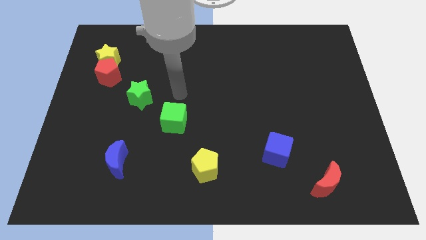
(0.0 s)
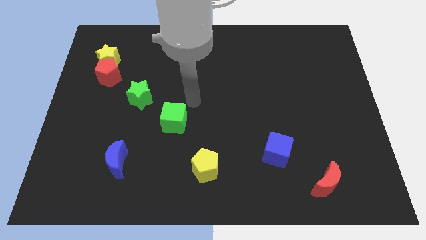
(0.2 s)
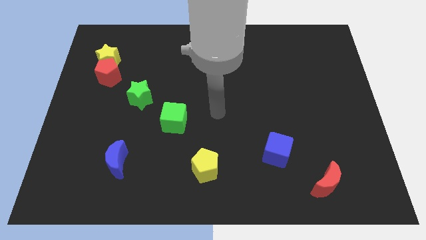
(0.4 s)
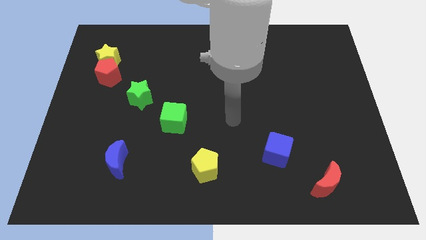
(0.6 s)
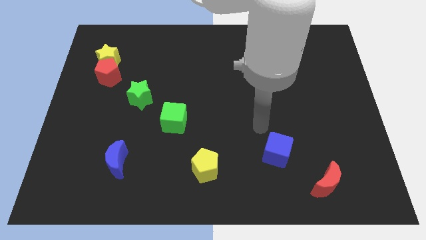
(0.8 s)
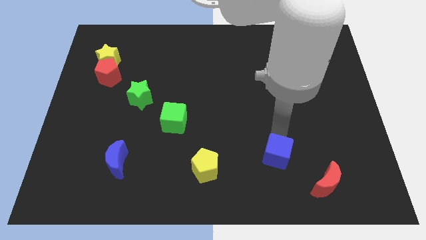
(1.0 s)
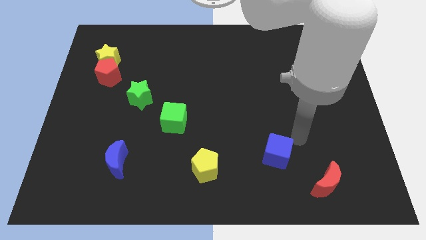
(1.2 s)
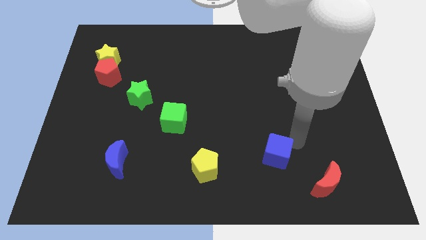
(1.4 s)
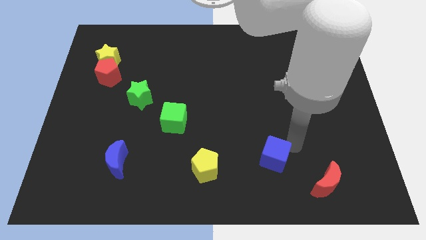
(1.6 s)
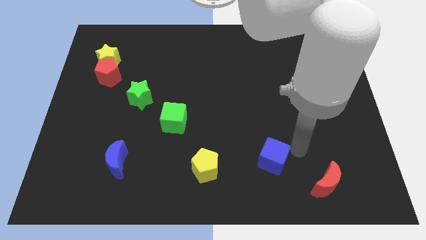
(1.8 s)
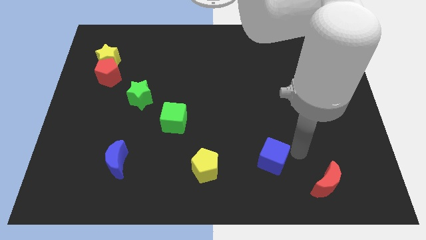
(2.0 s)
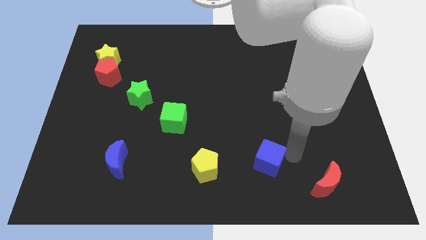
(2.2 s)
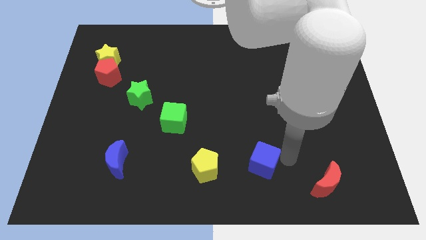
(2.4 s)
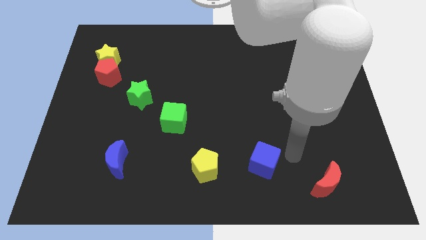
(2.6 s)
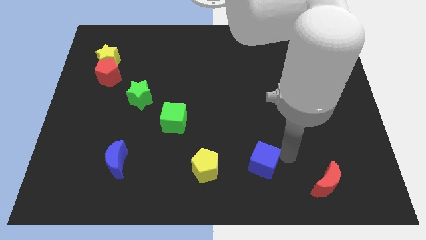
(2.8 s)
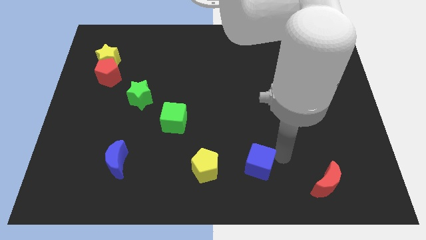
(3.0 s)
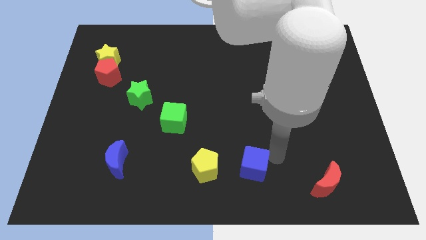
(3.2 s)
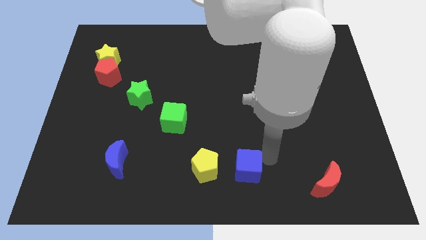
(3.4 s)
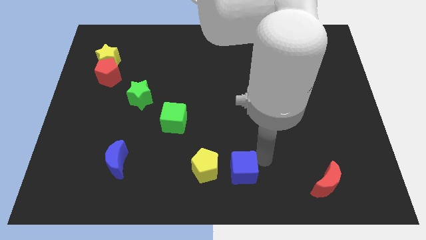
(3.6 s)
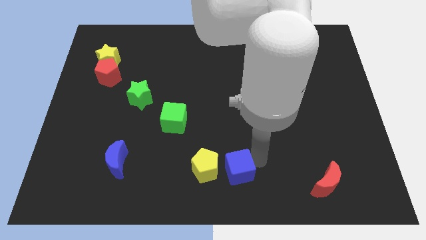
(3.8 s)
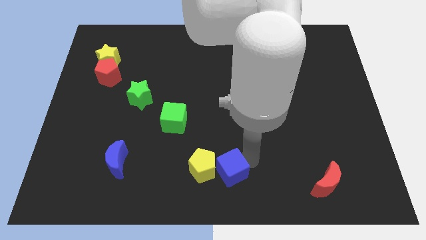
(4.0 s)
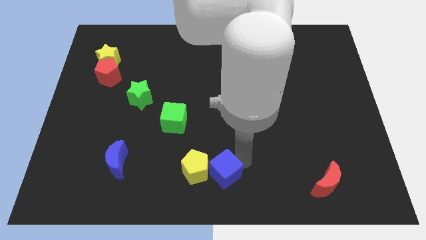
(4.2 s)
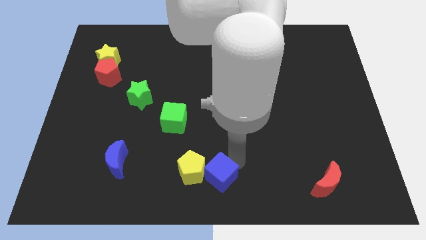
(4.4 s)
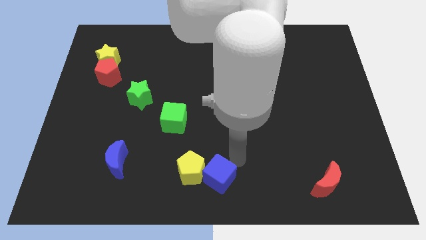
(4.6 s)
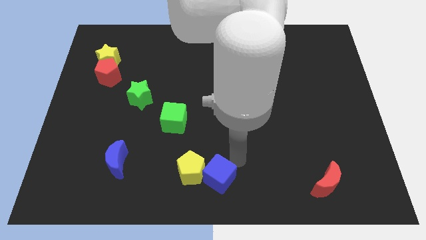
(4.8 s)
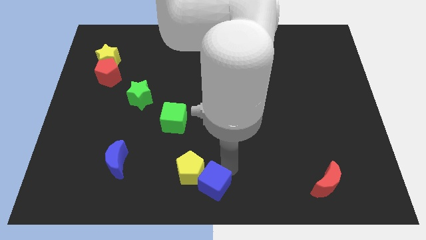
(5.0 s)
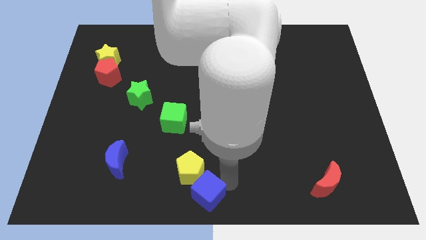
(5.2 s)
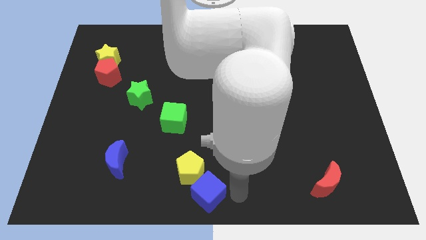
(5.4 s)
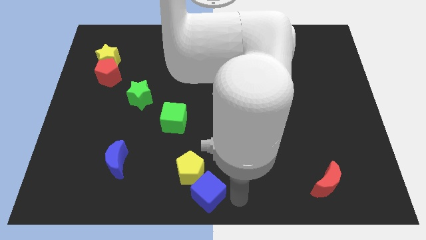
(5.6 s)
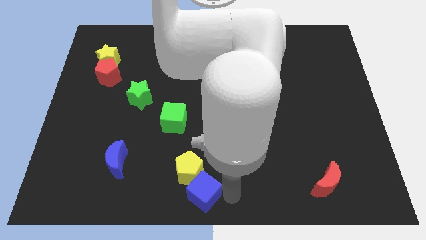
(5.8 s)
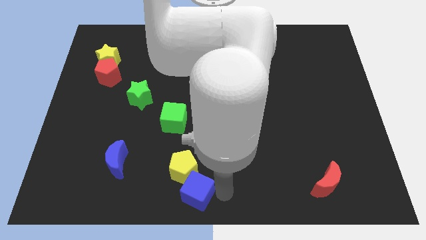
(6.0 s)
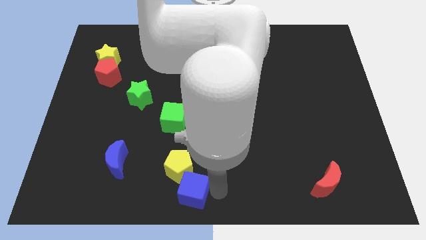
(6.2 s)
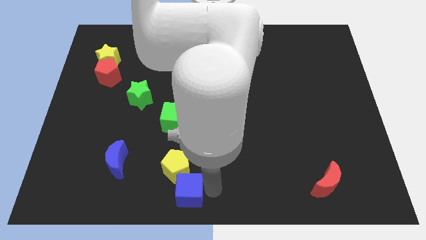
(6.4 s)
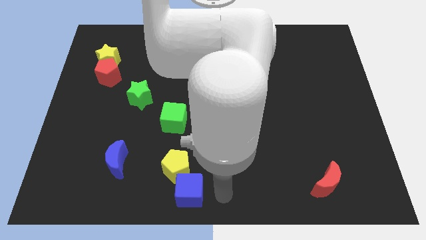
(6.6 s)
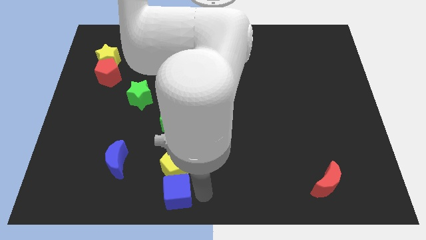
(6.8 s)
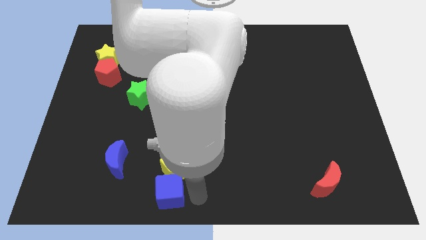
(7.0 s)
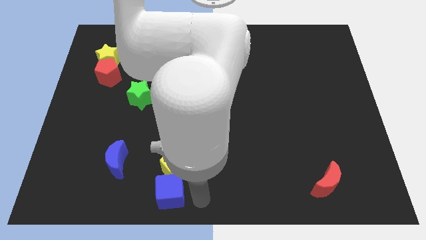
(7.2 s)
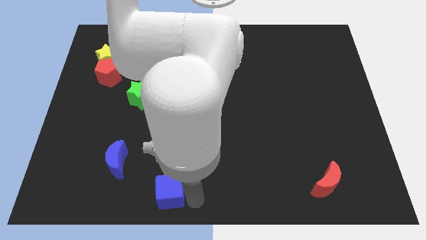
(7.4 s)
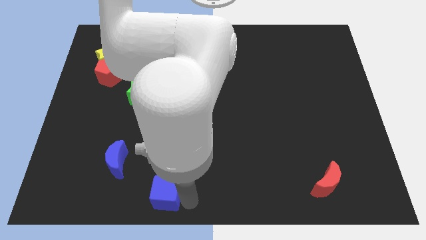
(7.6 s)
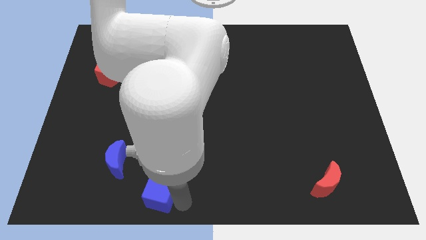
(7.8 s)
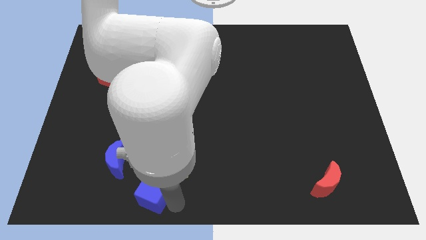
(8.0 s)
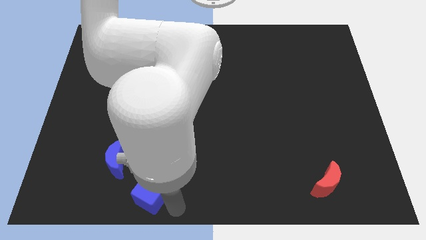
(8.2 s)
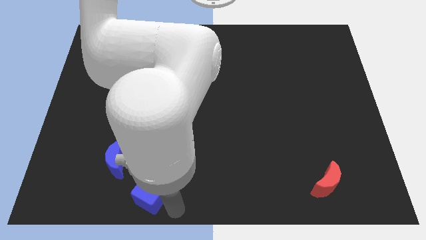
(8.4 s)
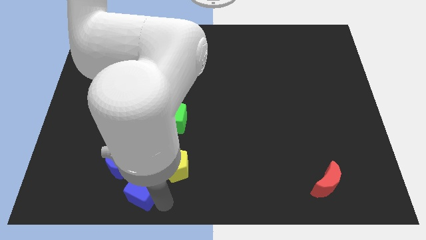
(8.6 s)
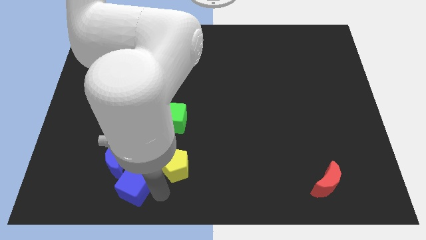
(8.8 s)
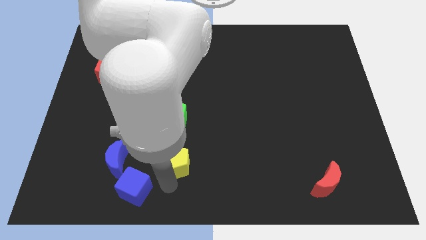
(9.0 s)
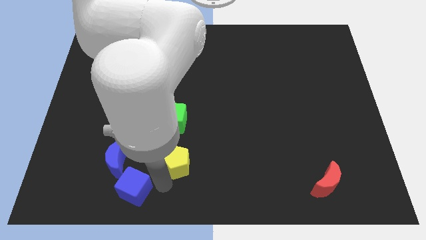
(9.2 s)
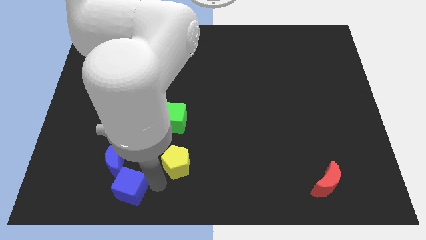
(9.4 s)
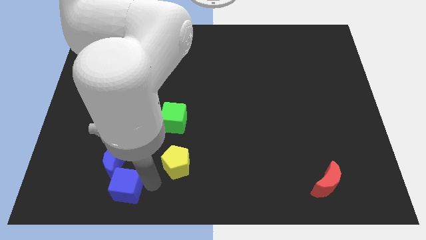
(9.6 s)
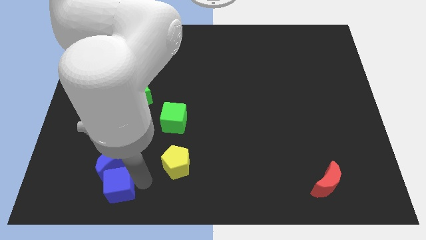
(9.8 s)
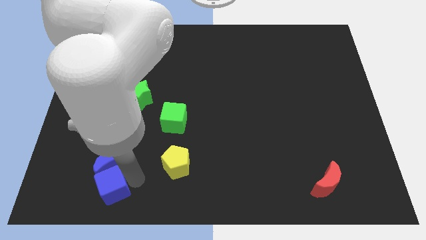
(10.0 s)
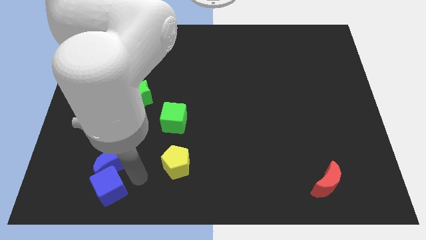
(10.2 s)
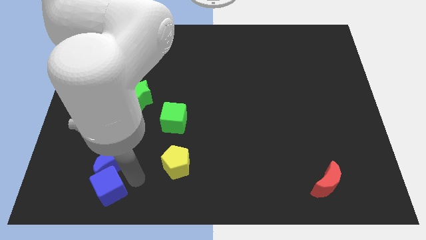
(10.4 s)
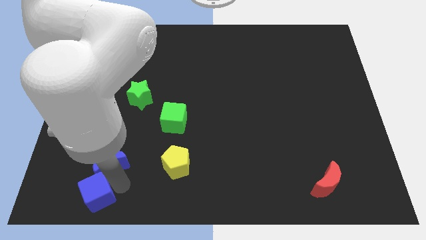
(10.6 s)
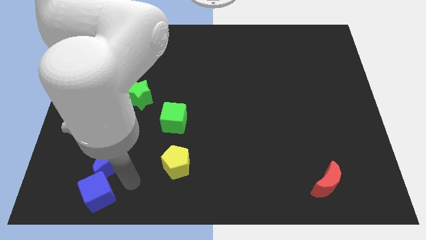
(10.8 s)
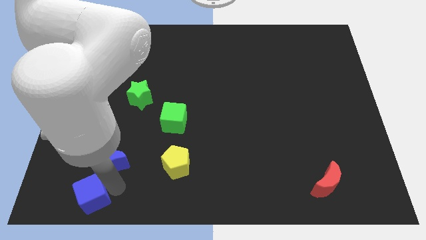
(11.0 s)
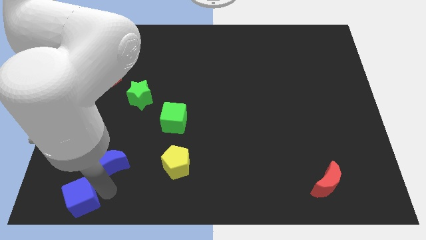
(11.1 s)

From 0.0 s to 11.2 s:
slide the blue cube to the bottom left corner

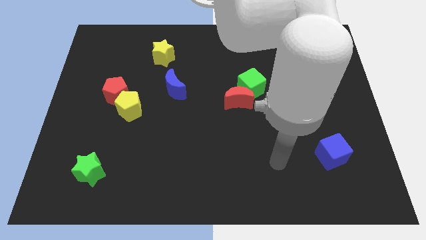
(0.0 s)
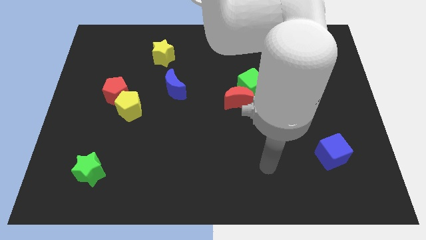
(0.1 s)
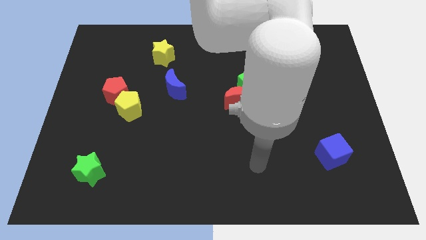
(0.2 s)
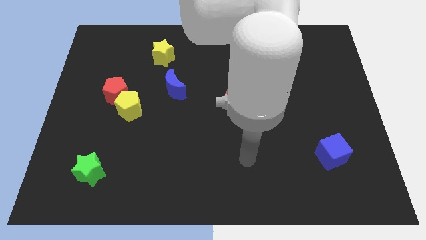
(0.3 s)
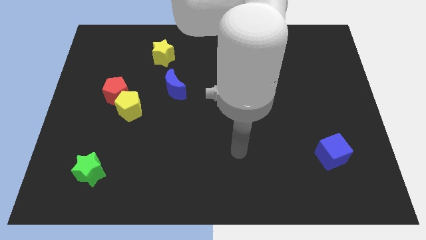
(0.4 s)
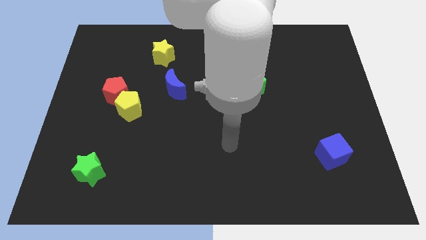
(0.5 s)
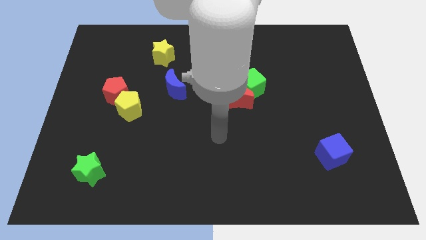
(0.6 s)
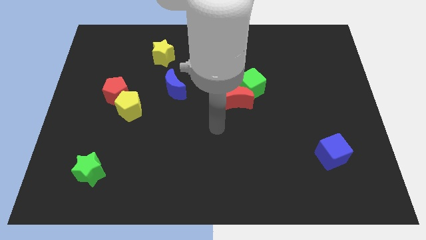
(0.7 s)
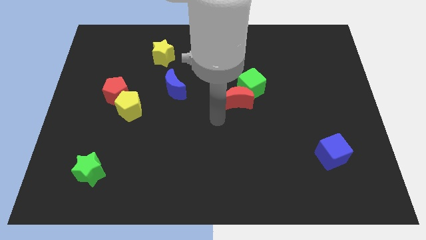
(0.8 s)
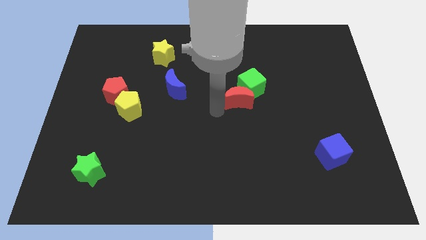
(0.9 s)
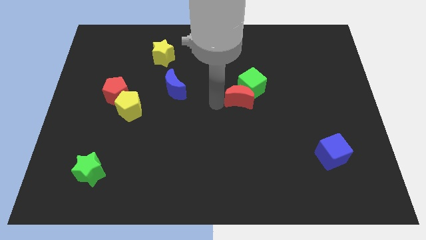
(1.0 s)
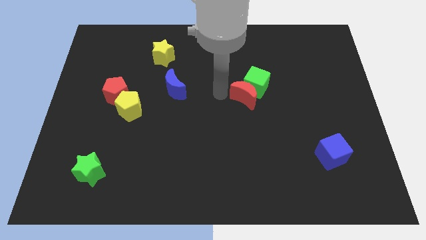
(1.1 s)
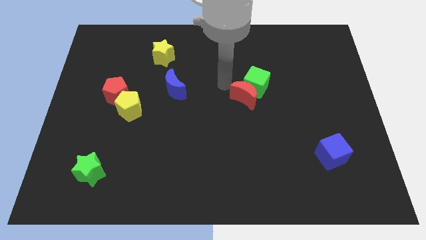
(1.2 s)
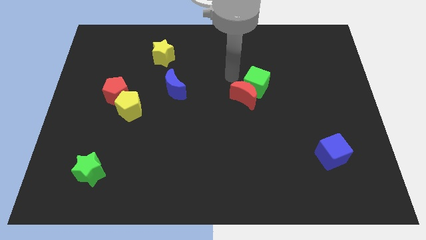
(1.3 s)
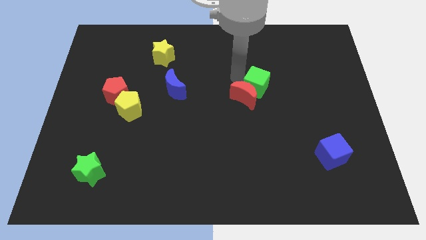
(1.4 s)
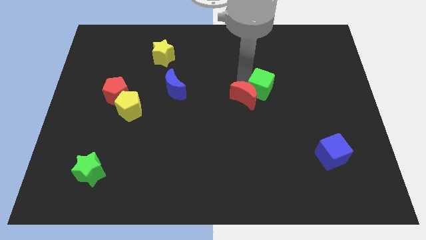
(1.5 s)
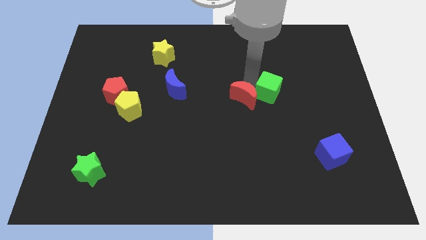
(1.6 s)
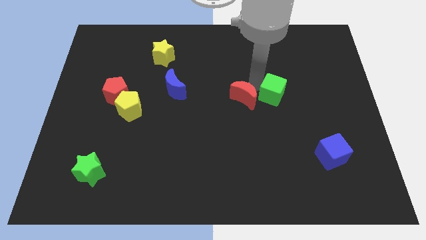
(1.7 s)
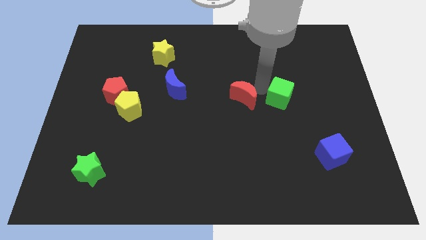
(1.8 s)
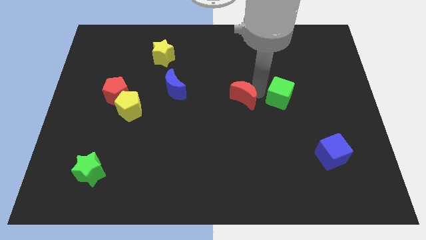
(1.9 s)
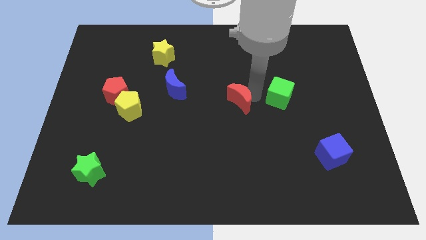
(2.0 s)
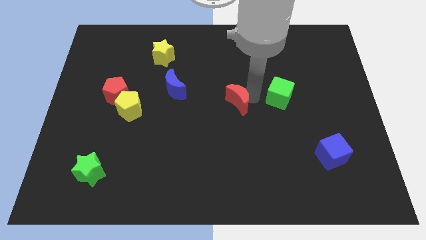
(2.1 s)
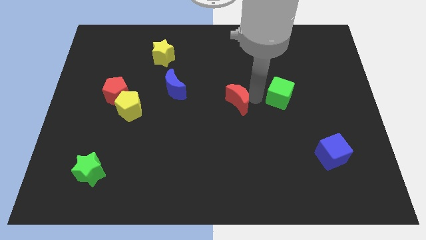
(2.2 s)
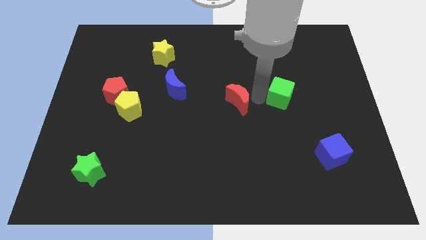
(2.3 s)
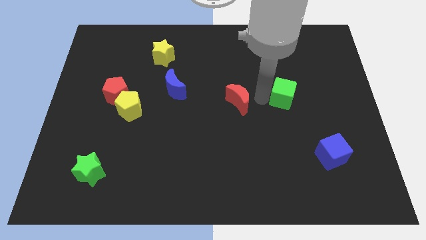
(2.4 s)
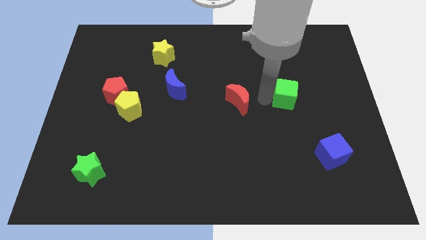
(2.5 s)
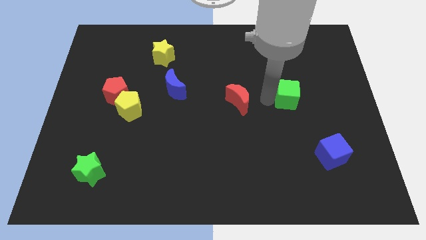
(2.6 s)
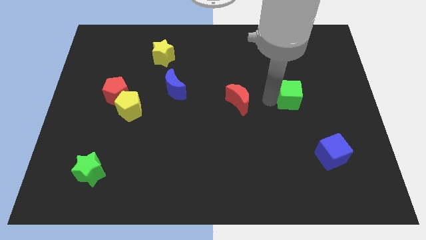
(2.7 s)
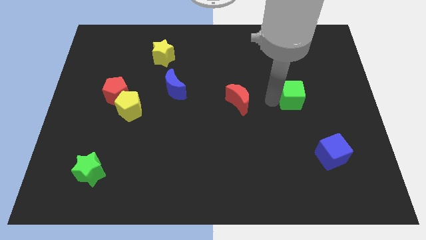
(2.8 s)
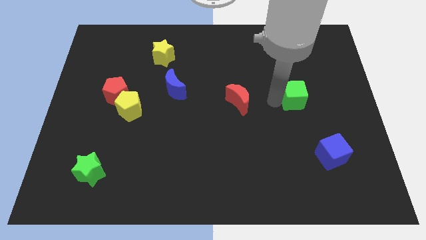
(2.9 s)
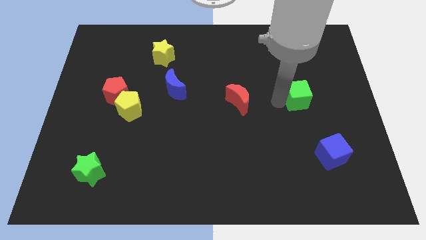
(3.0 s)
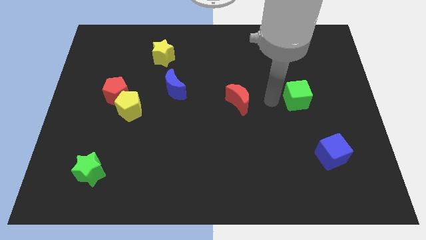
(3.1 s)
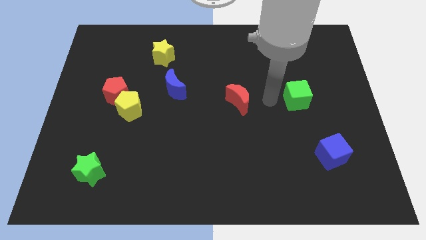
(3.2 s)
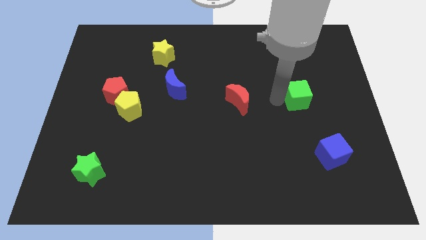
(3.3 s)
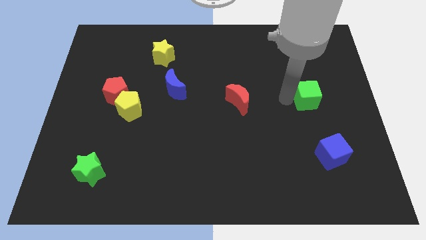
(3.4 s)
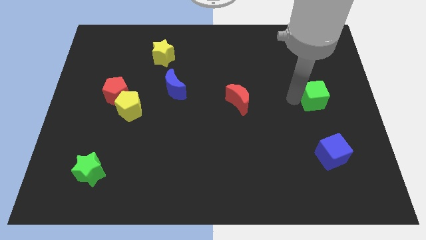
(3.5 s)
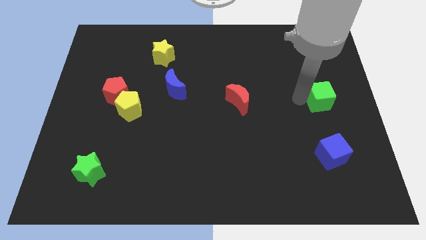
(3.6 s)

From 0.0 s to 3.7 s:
slide the green cube to the right side of the board
